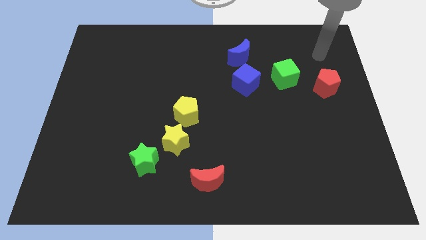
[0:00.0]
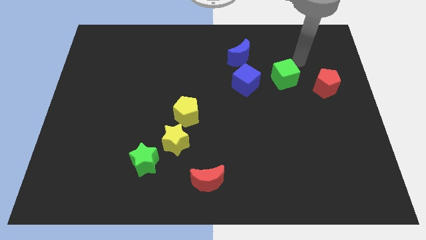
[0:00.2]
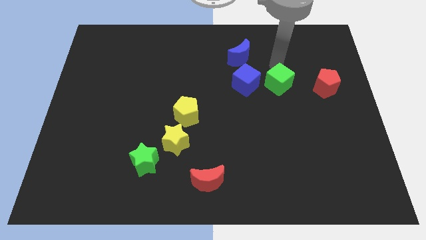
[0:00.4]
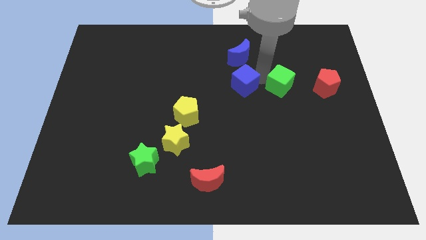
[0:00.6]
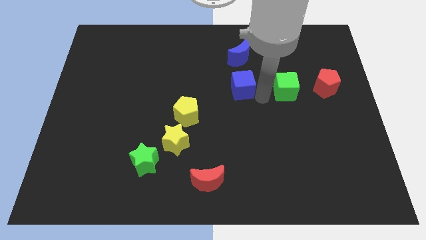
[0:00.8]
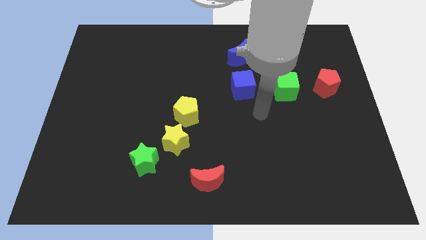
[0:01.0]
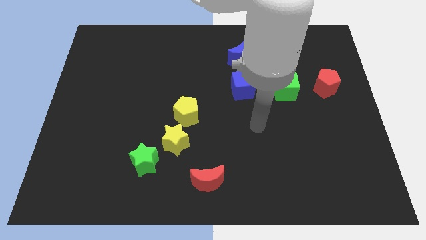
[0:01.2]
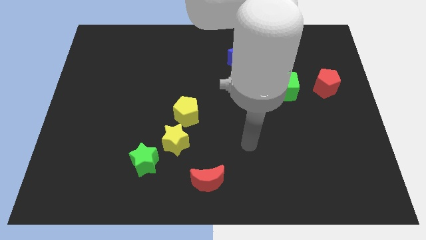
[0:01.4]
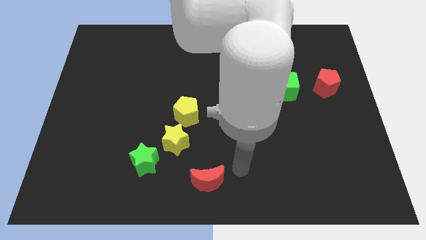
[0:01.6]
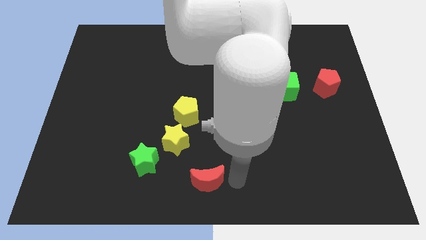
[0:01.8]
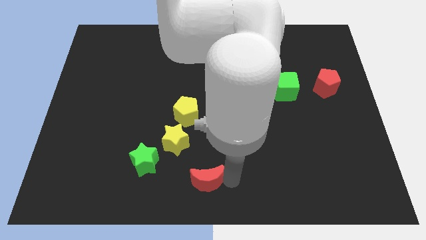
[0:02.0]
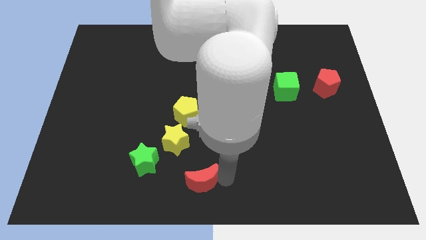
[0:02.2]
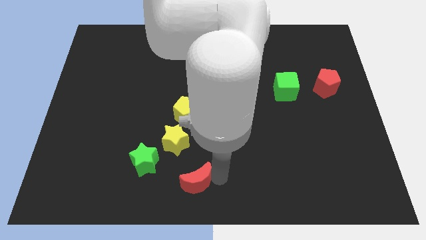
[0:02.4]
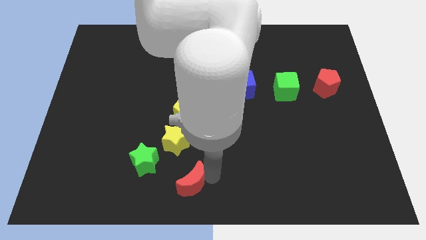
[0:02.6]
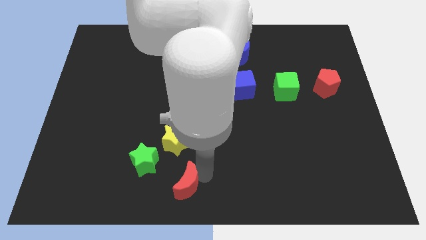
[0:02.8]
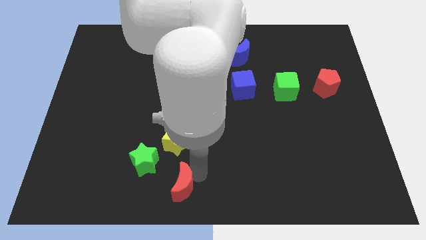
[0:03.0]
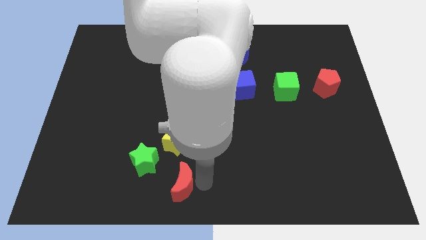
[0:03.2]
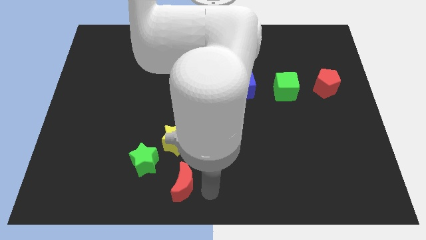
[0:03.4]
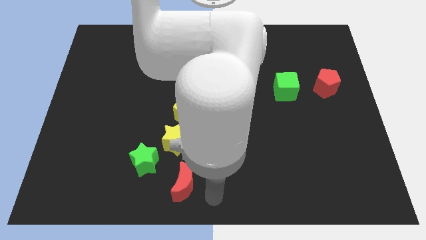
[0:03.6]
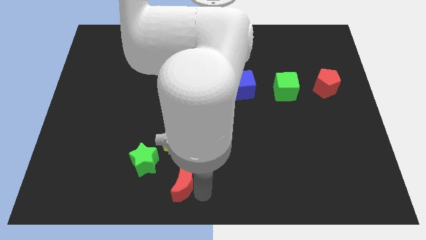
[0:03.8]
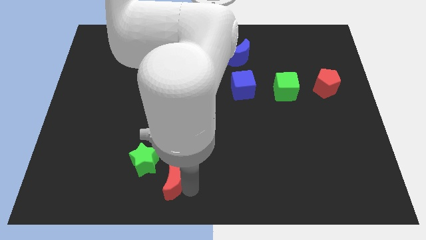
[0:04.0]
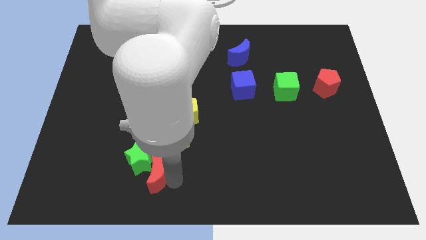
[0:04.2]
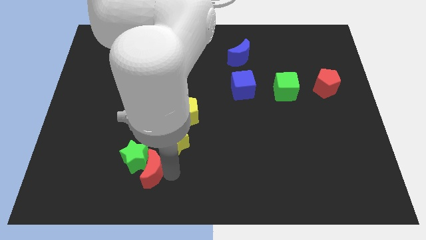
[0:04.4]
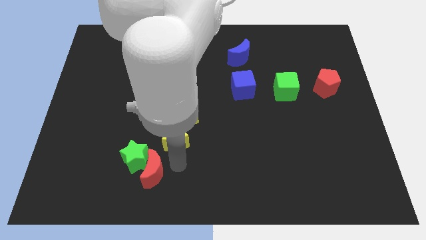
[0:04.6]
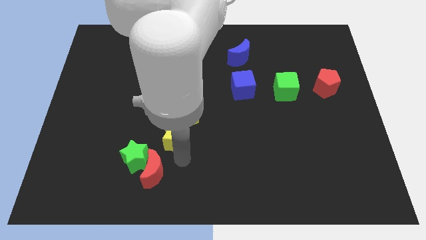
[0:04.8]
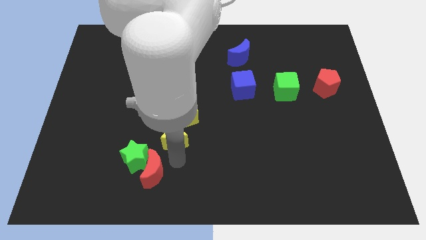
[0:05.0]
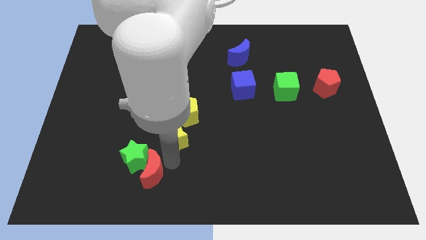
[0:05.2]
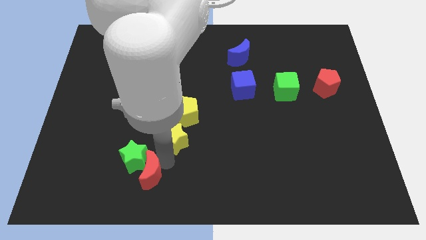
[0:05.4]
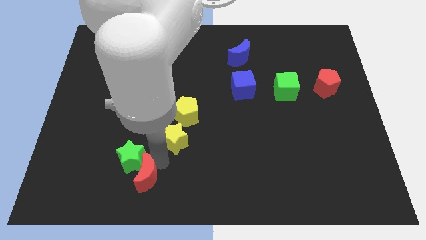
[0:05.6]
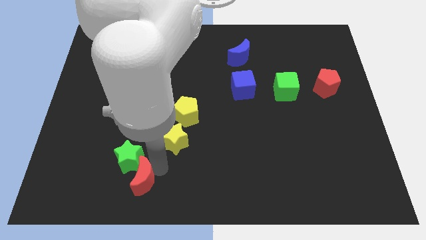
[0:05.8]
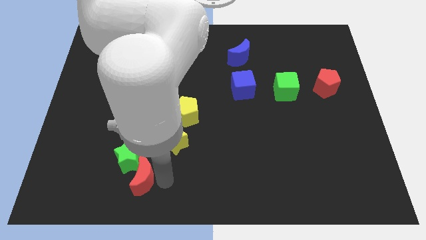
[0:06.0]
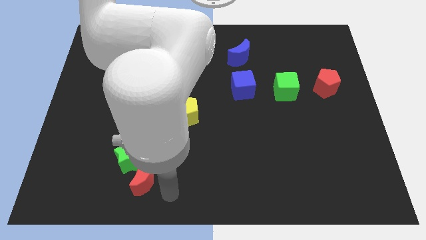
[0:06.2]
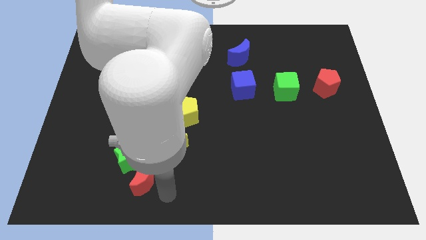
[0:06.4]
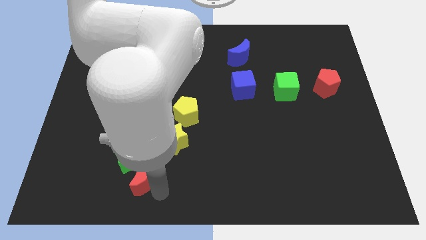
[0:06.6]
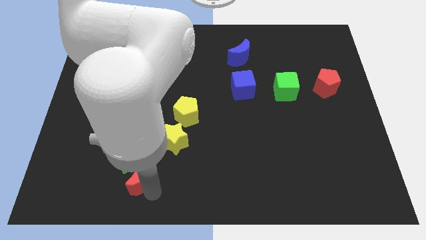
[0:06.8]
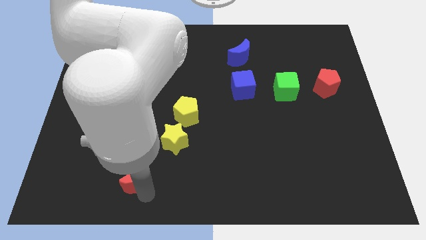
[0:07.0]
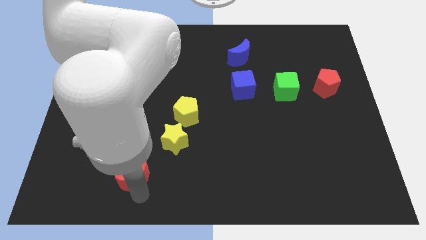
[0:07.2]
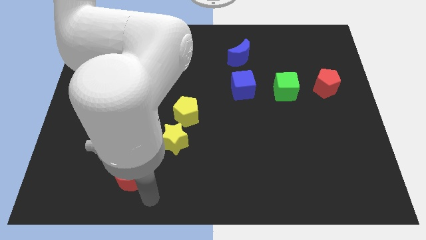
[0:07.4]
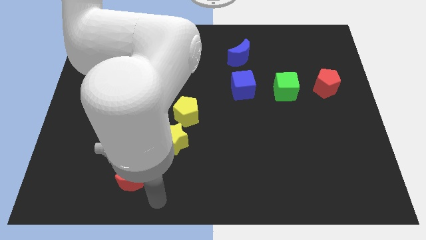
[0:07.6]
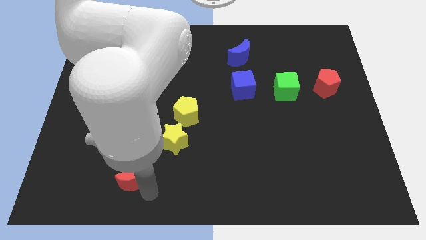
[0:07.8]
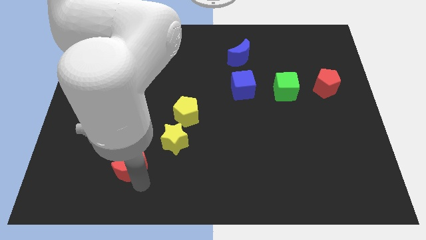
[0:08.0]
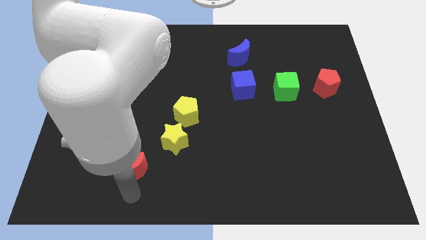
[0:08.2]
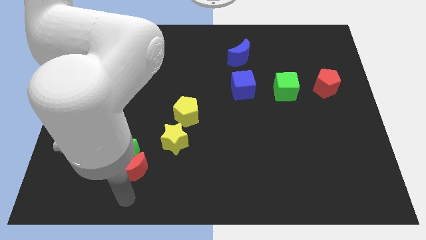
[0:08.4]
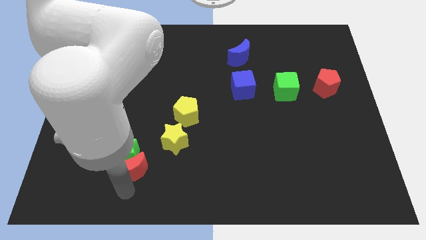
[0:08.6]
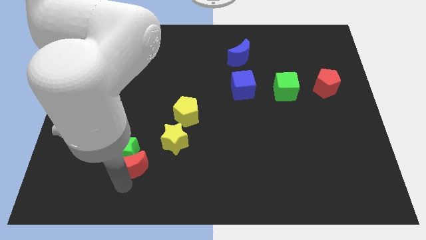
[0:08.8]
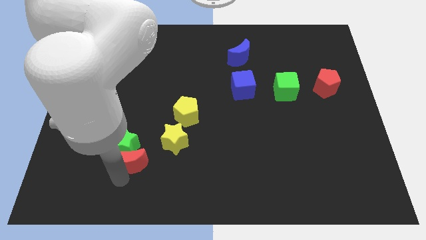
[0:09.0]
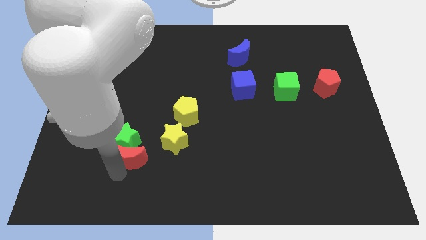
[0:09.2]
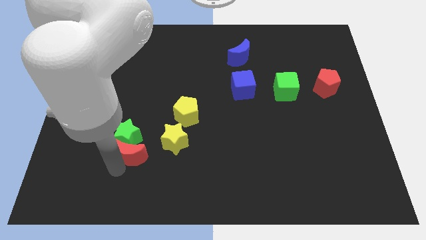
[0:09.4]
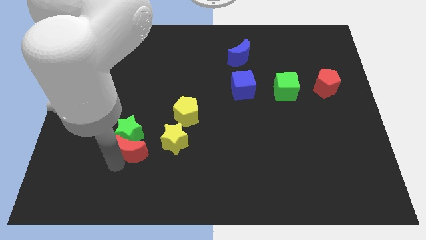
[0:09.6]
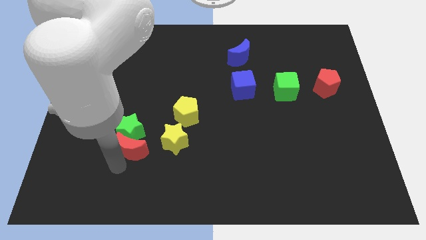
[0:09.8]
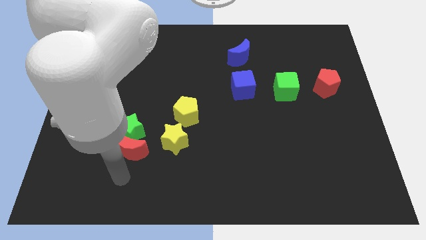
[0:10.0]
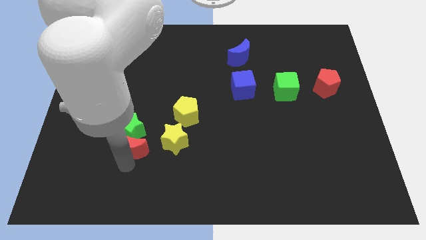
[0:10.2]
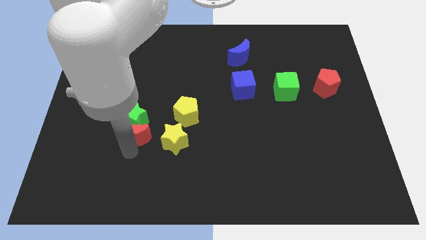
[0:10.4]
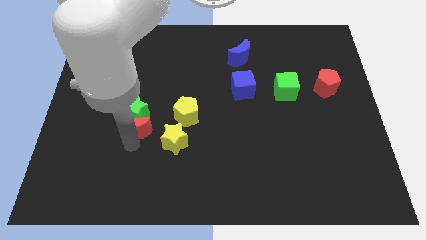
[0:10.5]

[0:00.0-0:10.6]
put the red moon just left of the yellow pentagon

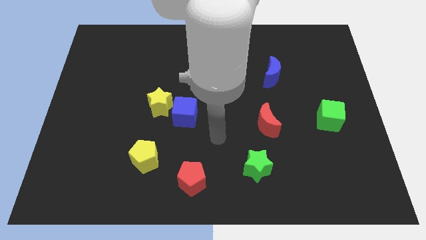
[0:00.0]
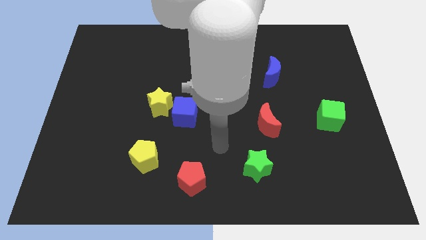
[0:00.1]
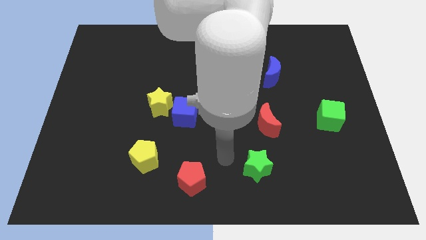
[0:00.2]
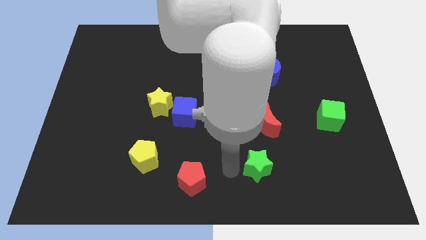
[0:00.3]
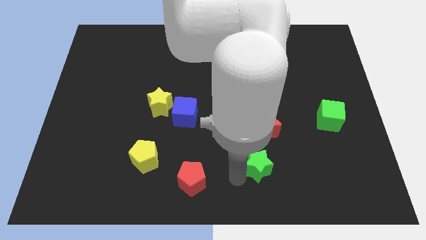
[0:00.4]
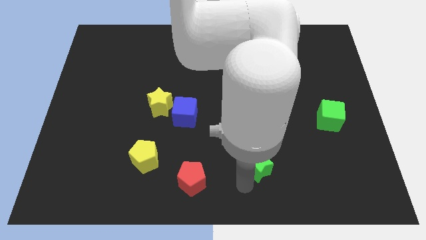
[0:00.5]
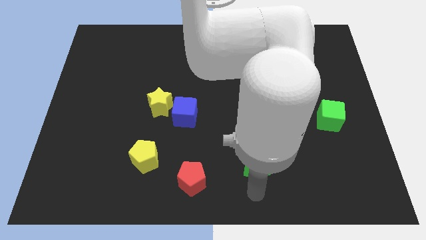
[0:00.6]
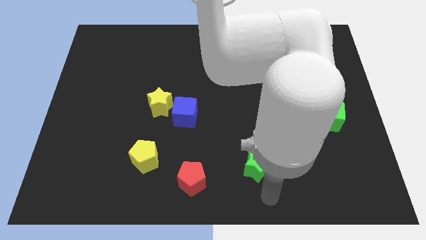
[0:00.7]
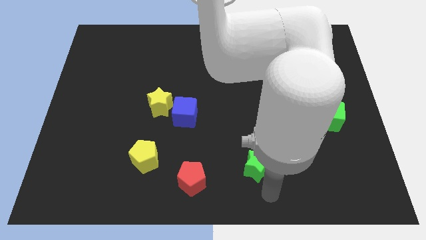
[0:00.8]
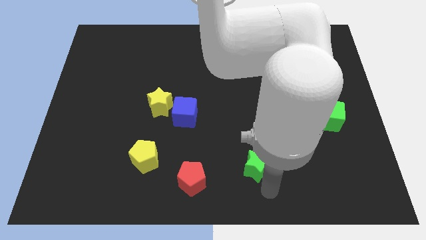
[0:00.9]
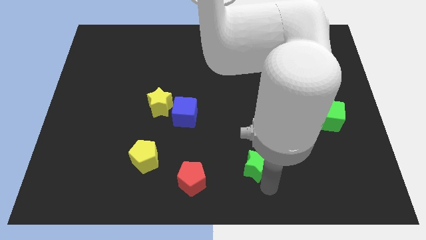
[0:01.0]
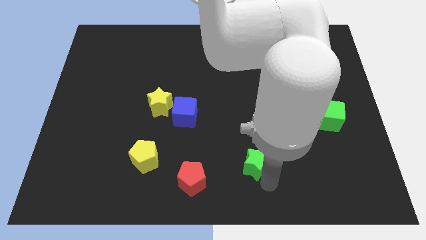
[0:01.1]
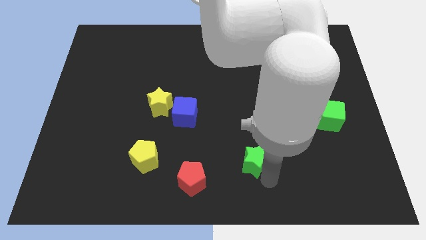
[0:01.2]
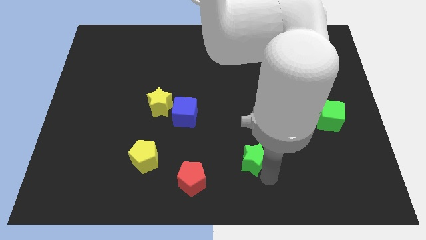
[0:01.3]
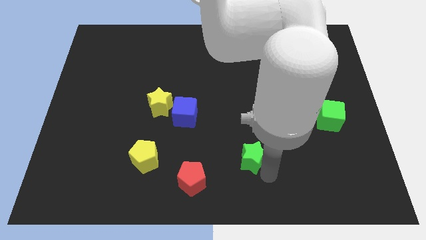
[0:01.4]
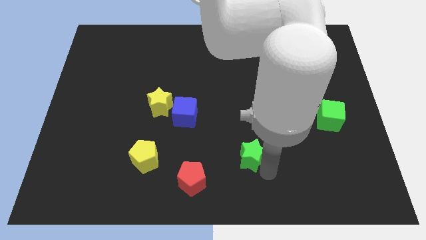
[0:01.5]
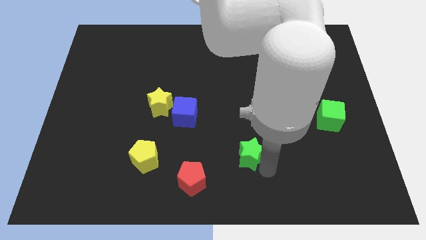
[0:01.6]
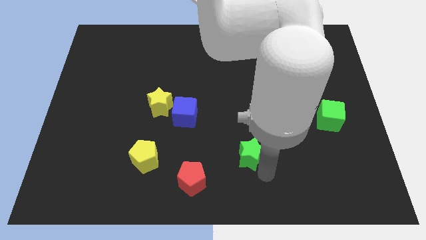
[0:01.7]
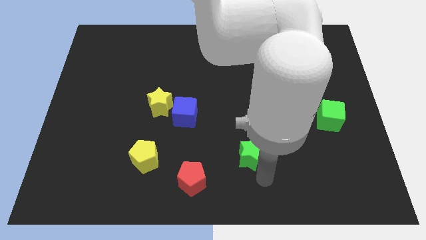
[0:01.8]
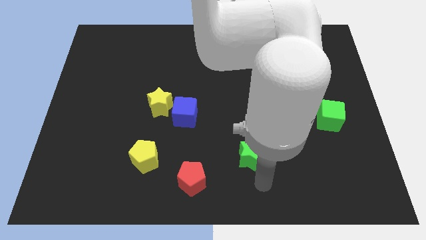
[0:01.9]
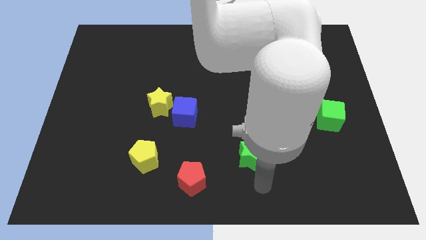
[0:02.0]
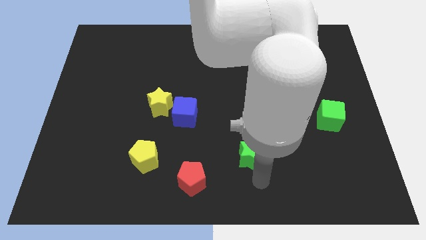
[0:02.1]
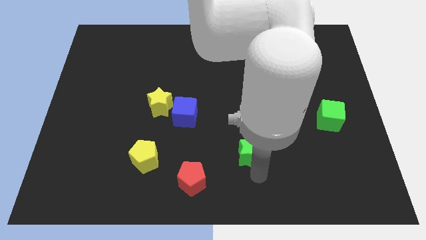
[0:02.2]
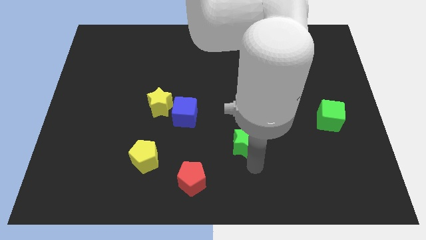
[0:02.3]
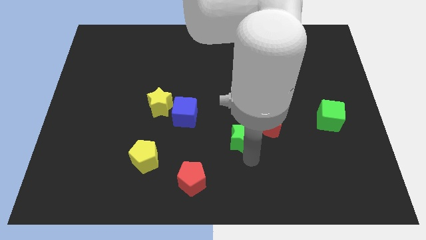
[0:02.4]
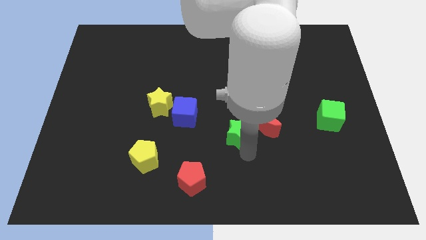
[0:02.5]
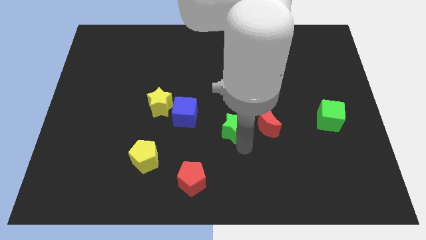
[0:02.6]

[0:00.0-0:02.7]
move the green star right of the blue cube
